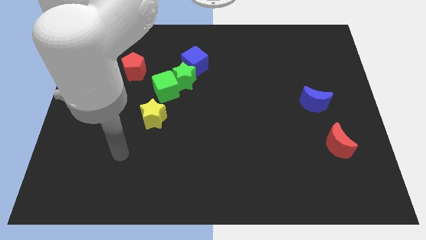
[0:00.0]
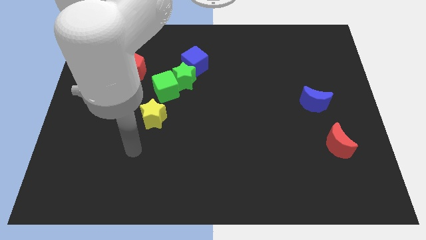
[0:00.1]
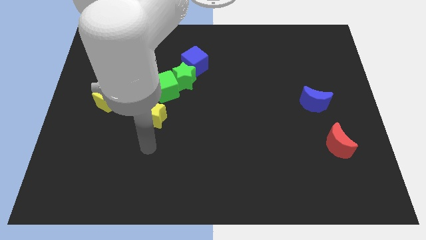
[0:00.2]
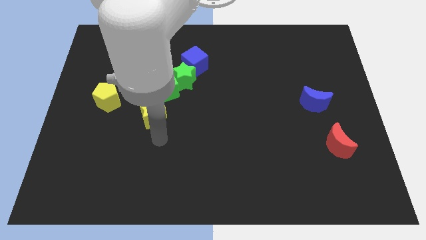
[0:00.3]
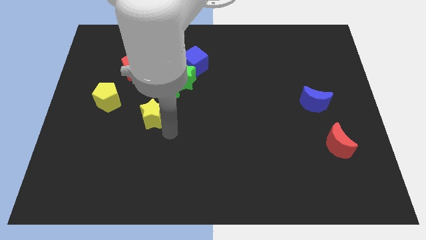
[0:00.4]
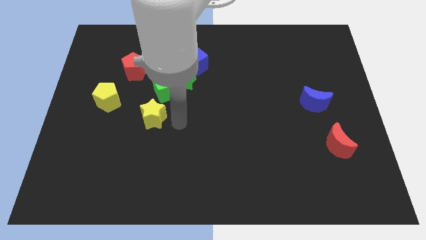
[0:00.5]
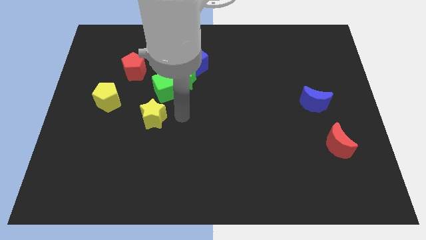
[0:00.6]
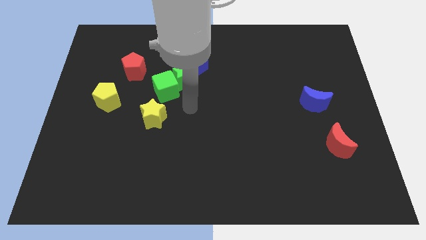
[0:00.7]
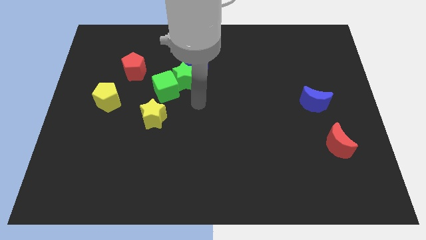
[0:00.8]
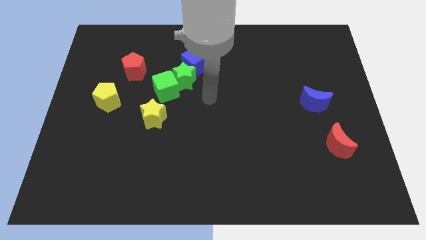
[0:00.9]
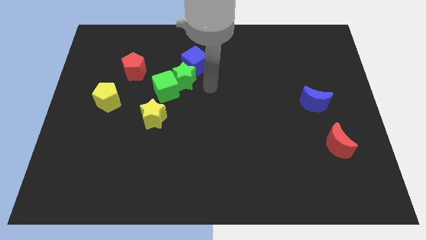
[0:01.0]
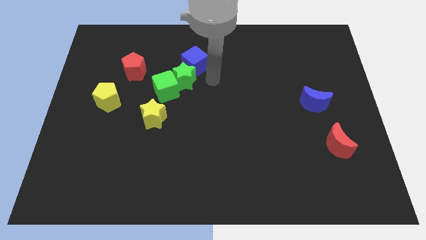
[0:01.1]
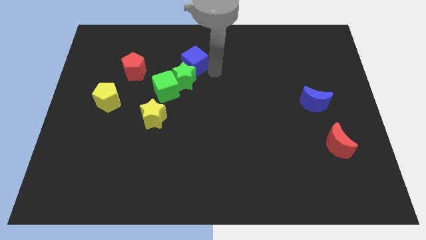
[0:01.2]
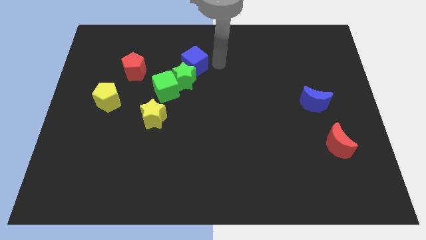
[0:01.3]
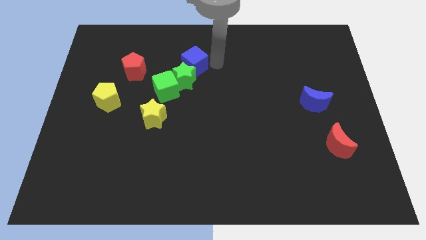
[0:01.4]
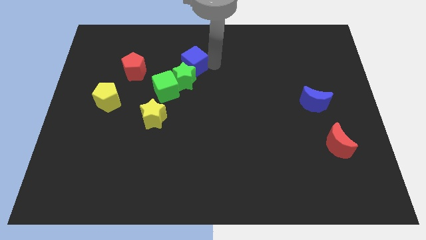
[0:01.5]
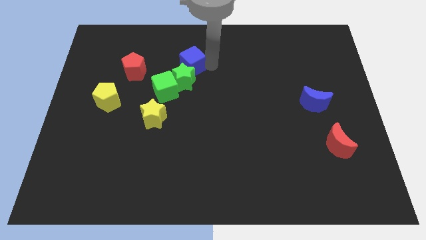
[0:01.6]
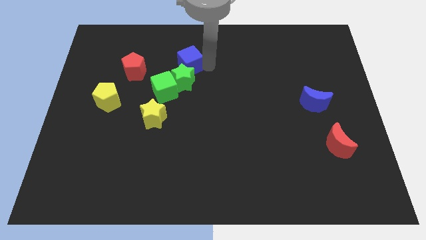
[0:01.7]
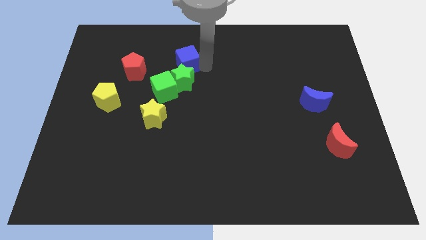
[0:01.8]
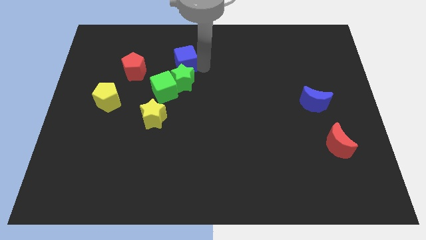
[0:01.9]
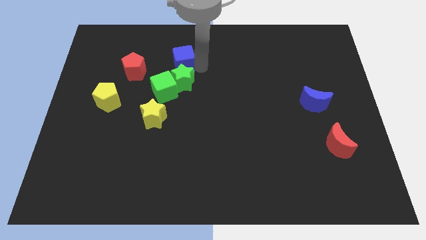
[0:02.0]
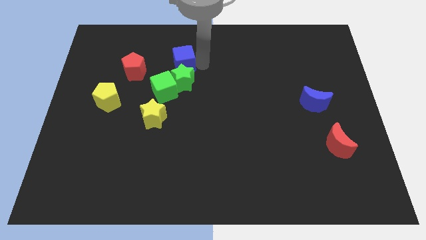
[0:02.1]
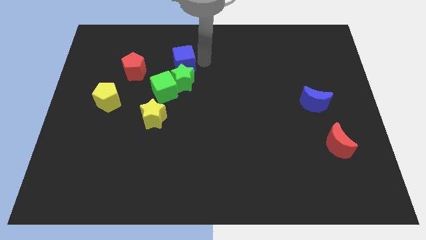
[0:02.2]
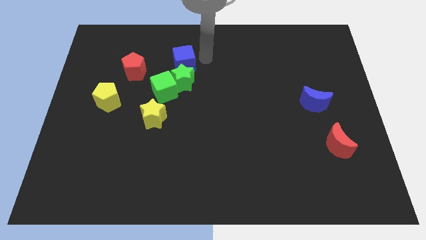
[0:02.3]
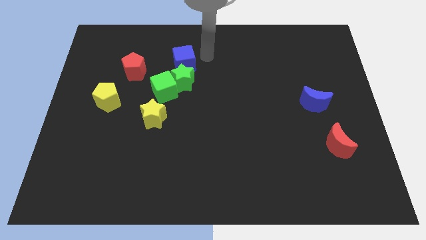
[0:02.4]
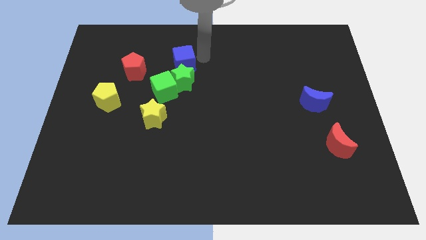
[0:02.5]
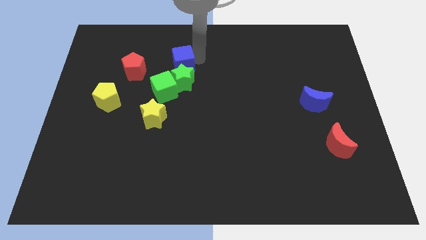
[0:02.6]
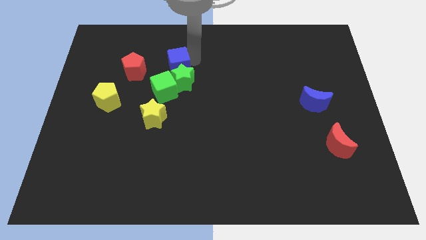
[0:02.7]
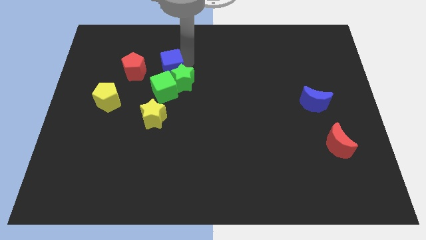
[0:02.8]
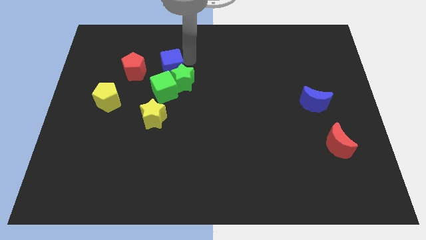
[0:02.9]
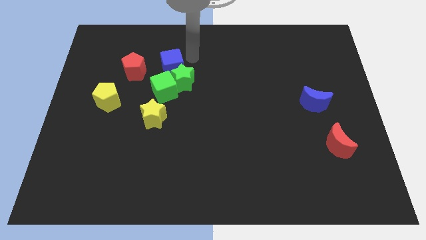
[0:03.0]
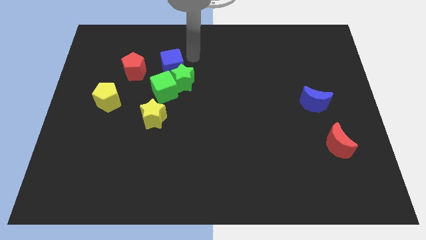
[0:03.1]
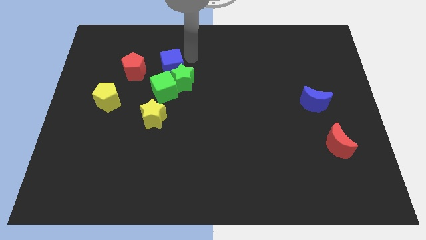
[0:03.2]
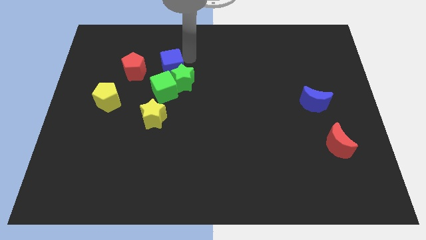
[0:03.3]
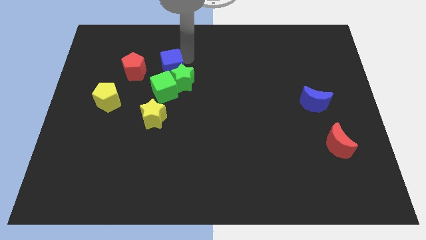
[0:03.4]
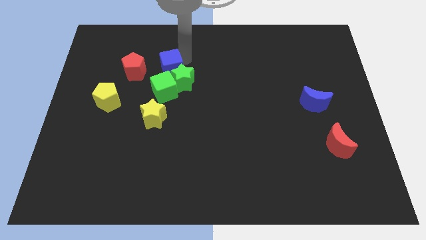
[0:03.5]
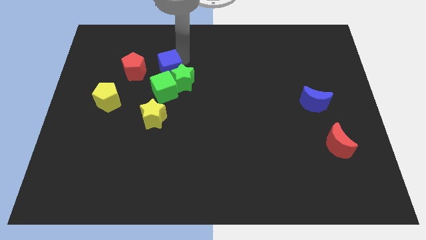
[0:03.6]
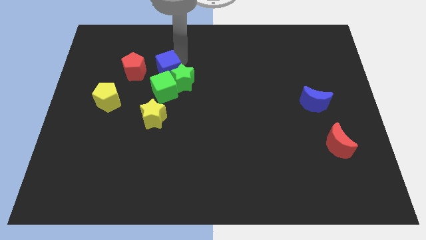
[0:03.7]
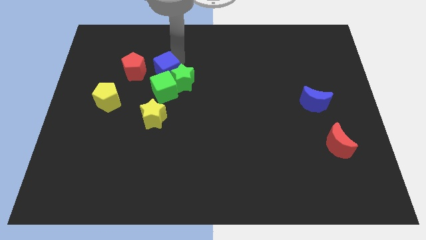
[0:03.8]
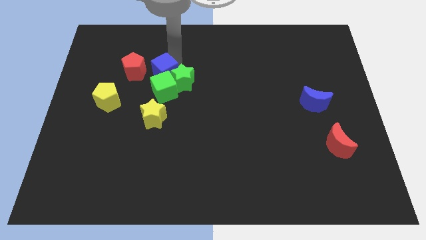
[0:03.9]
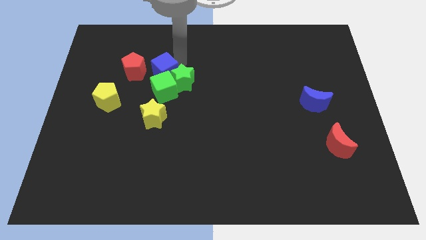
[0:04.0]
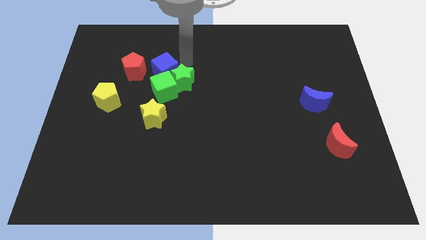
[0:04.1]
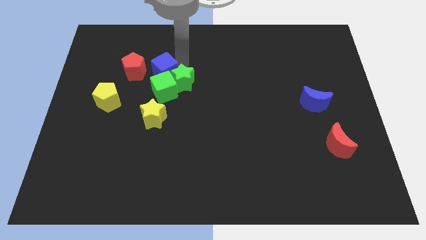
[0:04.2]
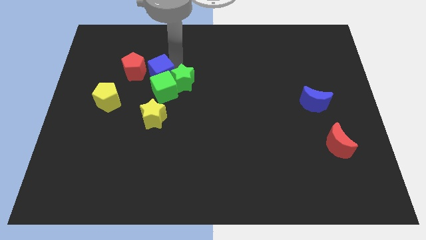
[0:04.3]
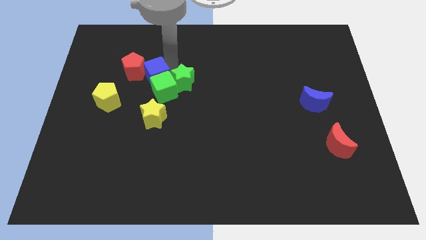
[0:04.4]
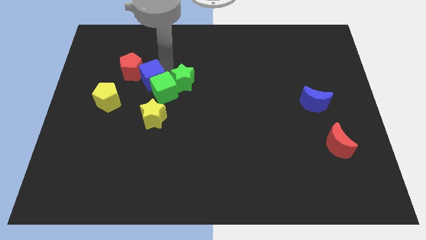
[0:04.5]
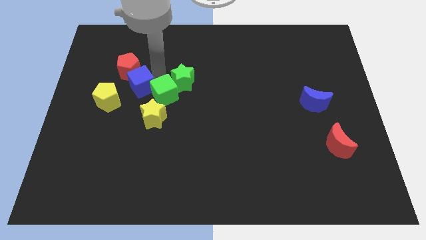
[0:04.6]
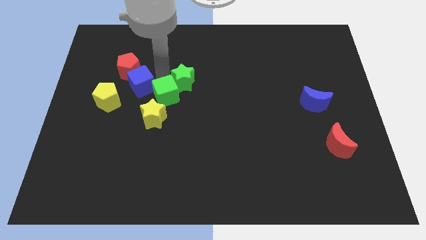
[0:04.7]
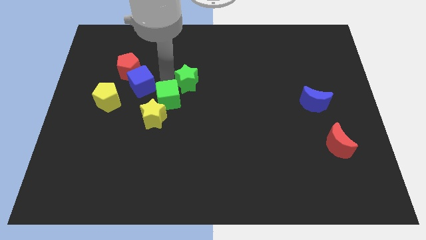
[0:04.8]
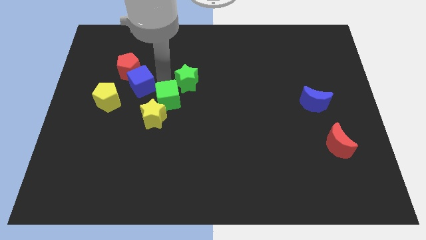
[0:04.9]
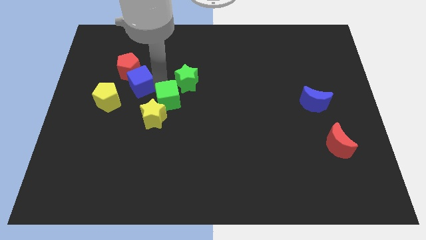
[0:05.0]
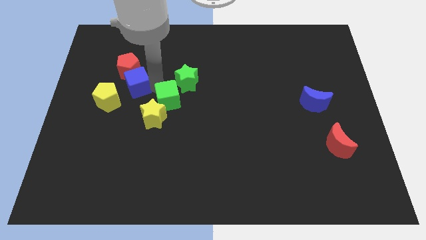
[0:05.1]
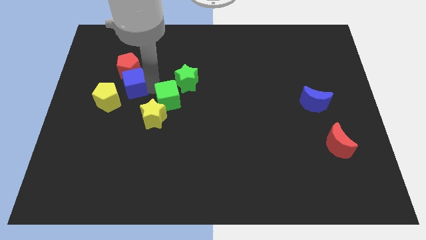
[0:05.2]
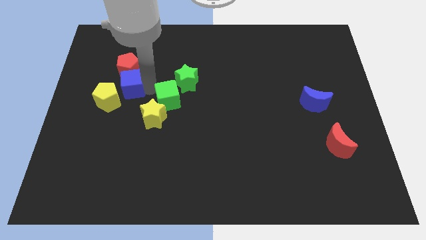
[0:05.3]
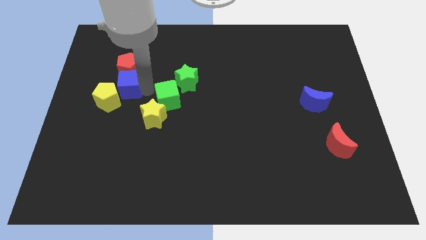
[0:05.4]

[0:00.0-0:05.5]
push the blue cube to the bottom left side of the red pentagon

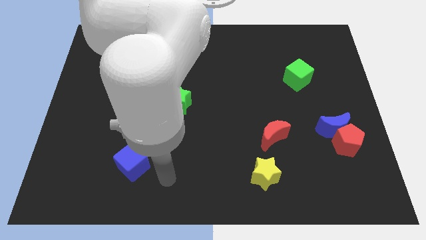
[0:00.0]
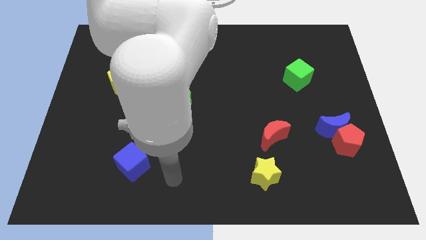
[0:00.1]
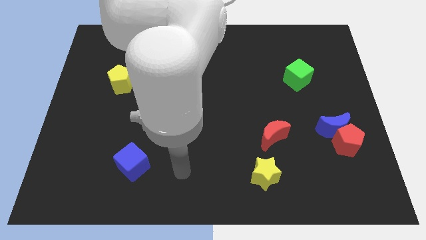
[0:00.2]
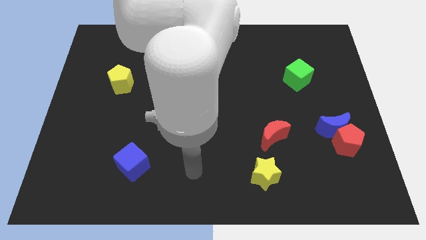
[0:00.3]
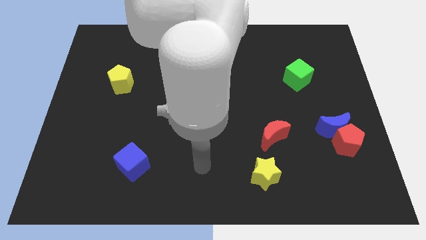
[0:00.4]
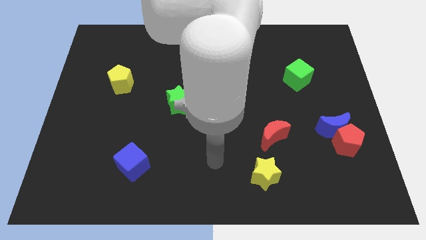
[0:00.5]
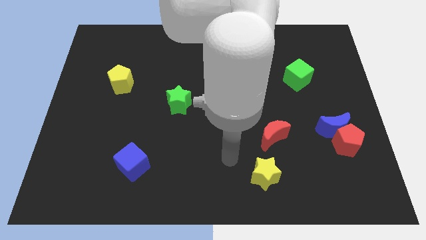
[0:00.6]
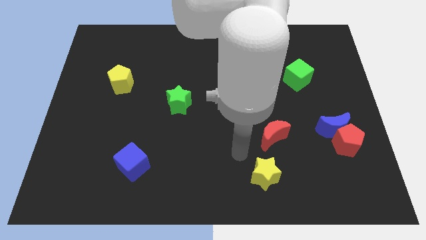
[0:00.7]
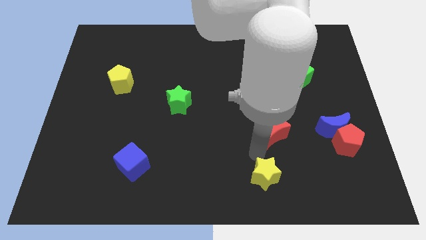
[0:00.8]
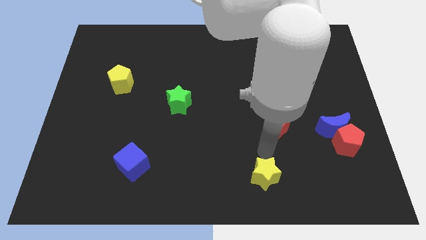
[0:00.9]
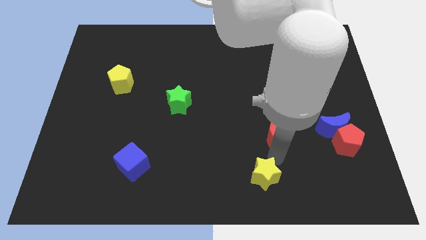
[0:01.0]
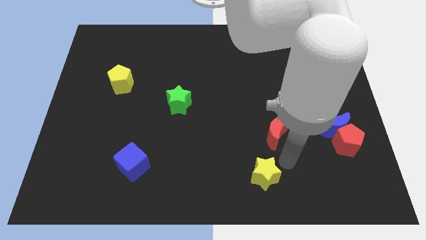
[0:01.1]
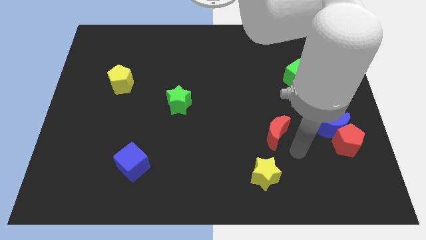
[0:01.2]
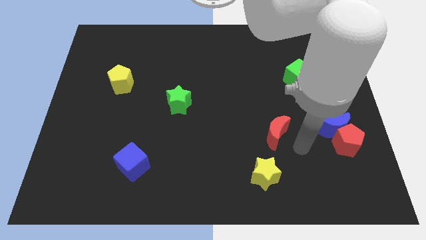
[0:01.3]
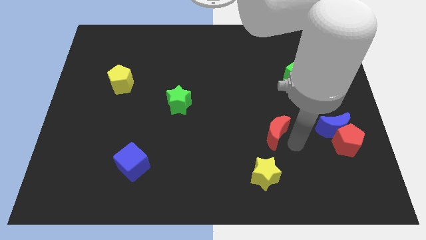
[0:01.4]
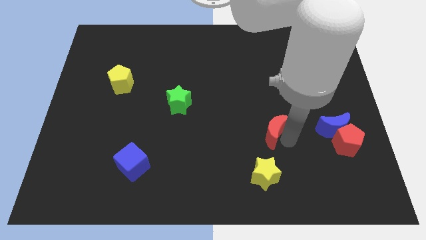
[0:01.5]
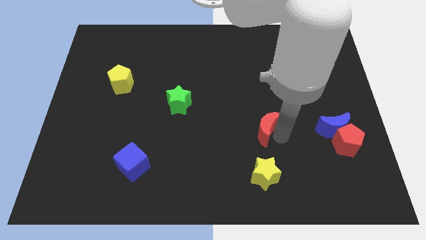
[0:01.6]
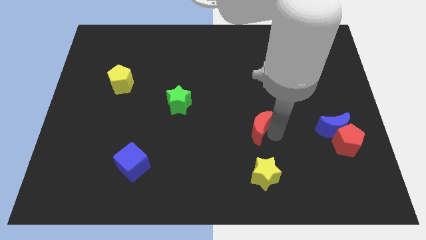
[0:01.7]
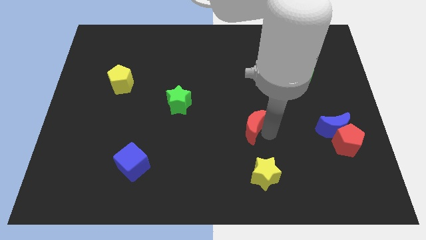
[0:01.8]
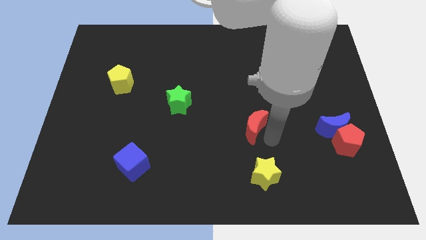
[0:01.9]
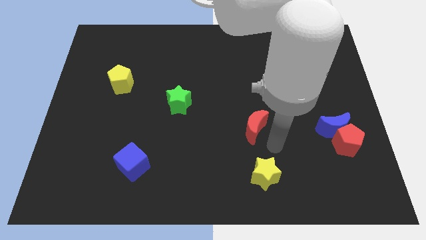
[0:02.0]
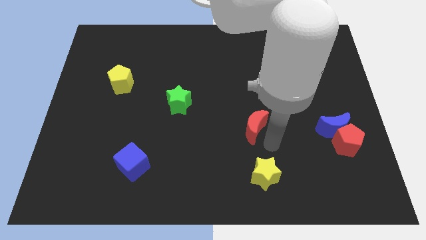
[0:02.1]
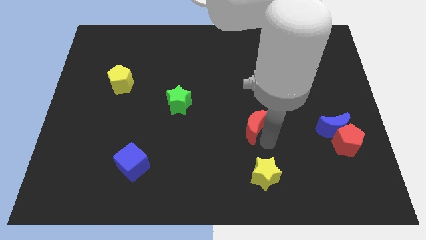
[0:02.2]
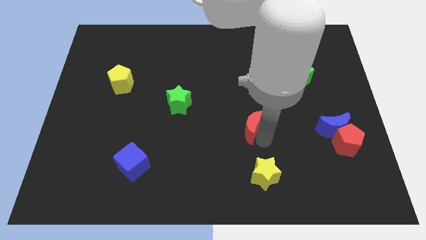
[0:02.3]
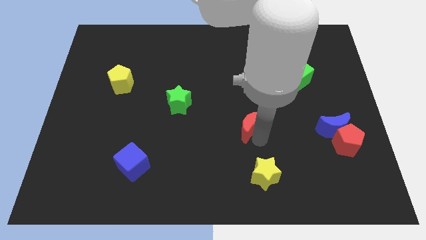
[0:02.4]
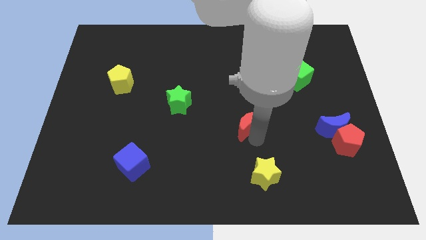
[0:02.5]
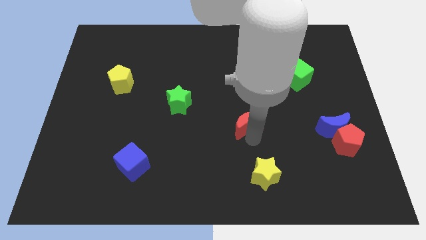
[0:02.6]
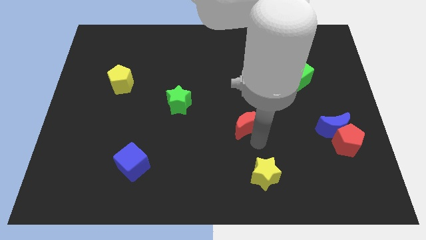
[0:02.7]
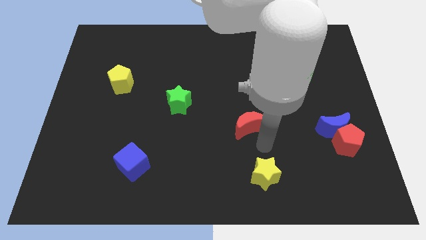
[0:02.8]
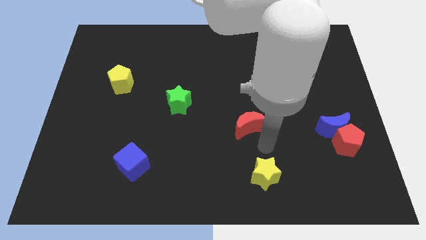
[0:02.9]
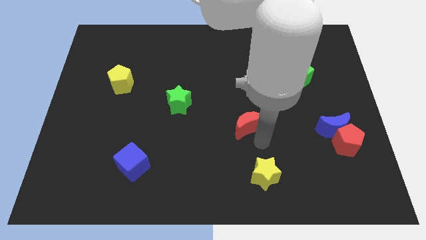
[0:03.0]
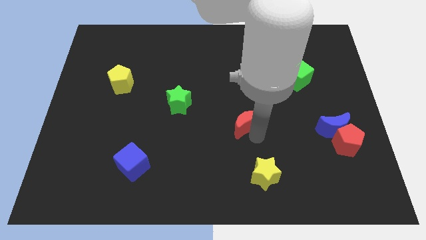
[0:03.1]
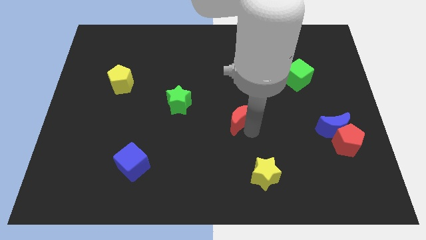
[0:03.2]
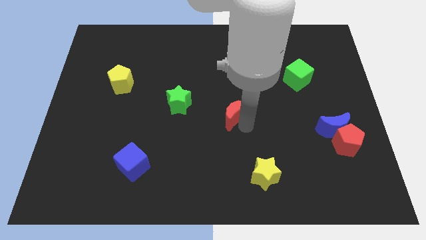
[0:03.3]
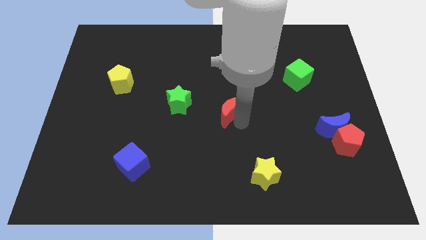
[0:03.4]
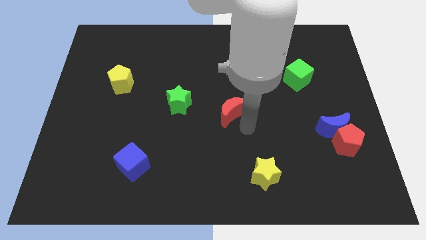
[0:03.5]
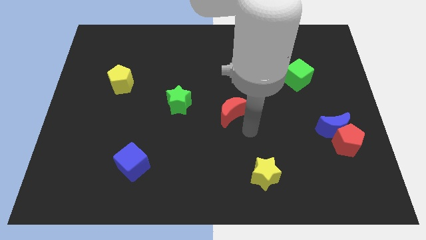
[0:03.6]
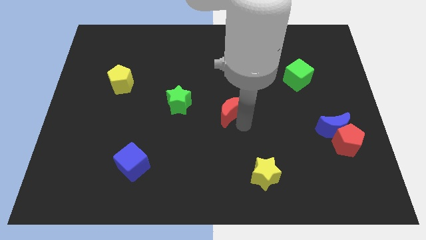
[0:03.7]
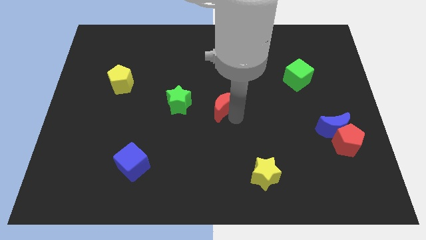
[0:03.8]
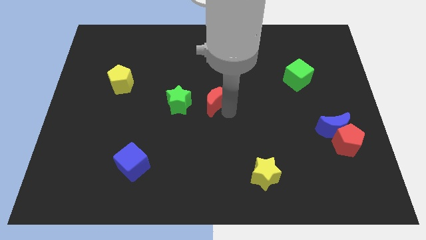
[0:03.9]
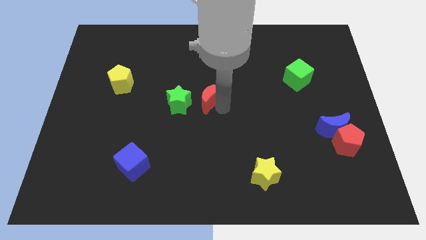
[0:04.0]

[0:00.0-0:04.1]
slide the red moon to the top right of the green star
